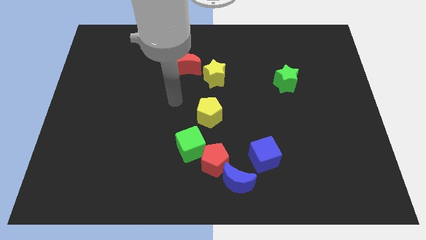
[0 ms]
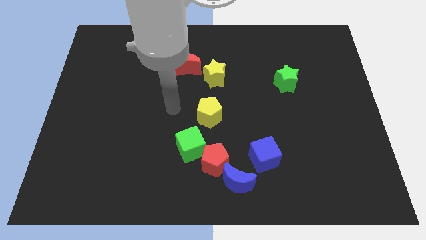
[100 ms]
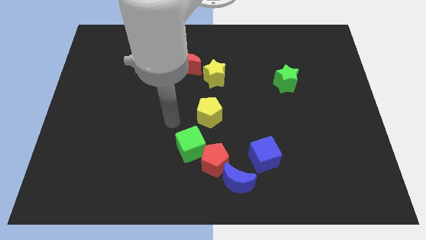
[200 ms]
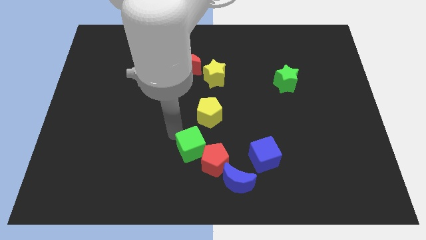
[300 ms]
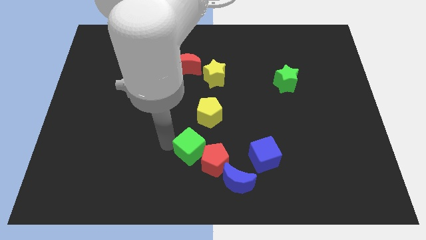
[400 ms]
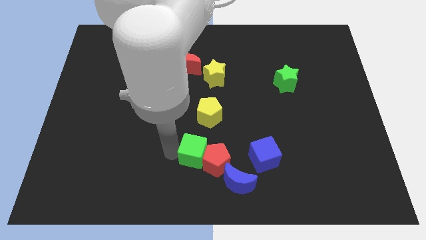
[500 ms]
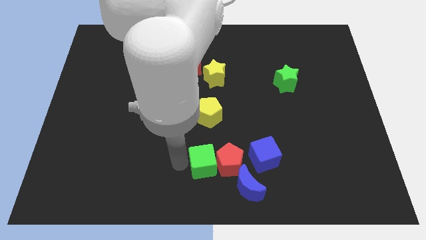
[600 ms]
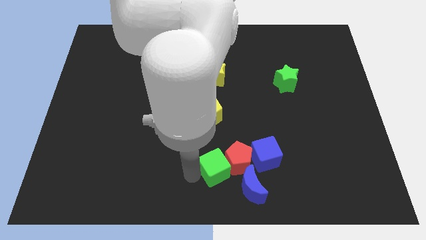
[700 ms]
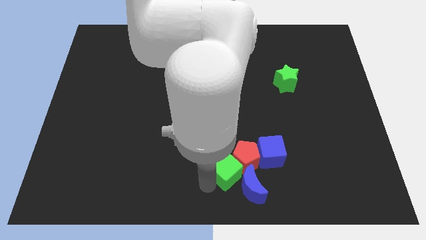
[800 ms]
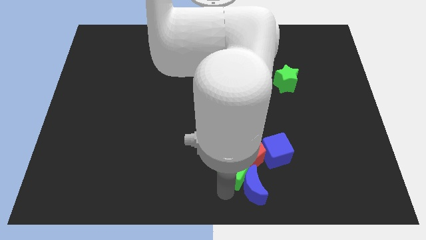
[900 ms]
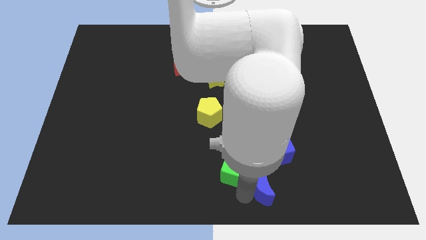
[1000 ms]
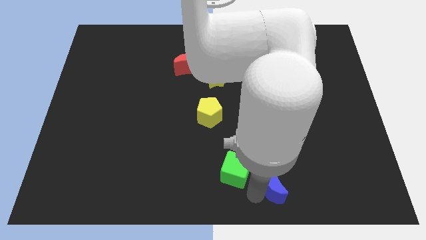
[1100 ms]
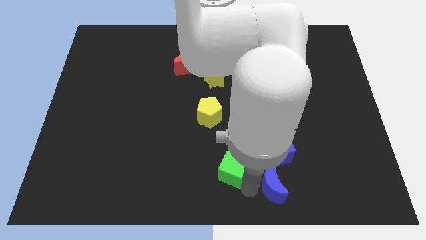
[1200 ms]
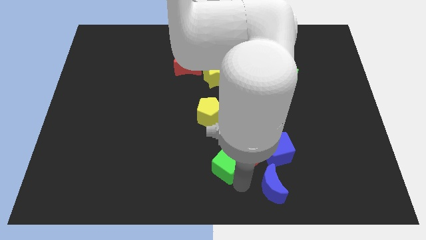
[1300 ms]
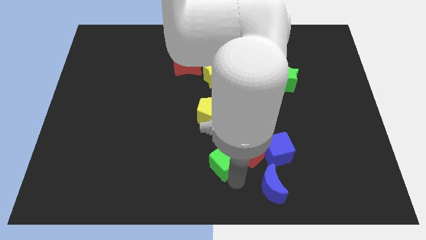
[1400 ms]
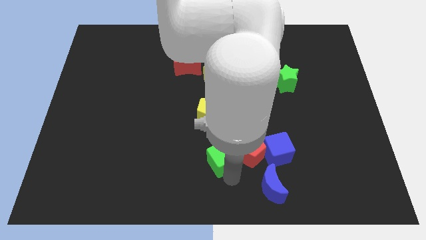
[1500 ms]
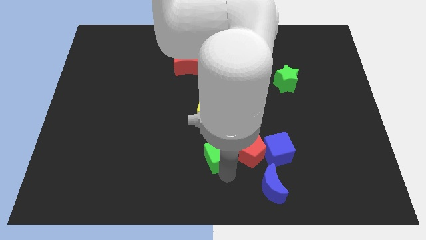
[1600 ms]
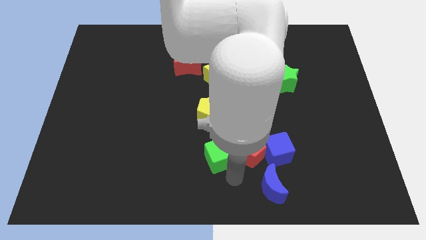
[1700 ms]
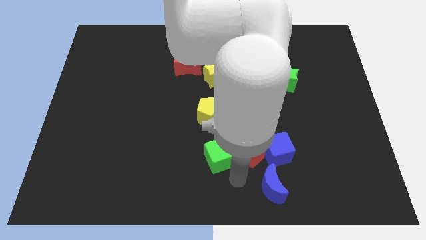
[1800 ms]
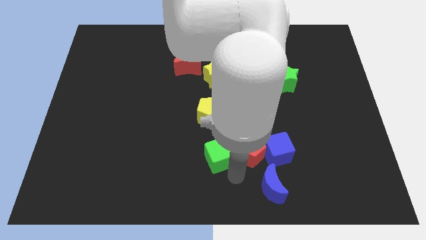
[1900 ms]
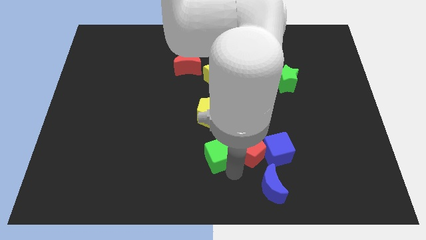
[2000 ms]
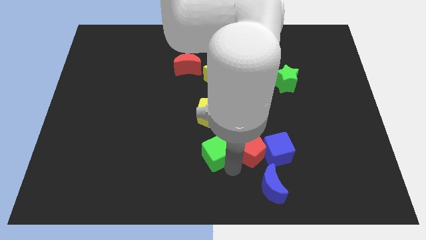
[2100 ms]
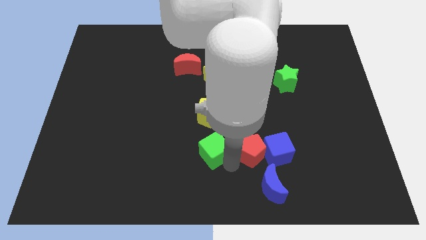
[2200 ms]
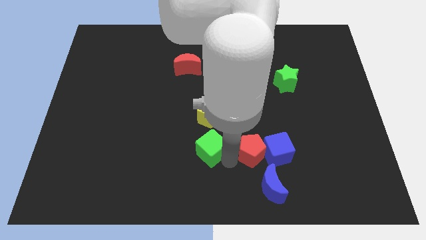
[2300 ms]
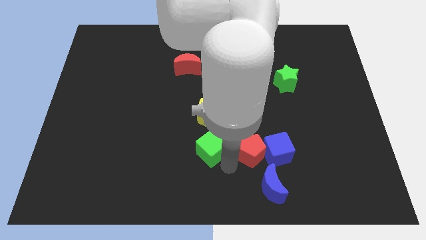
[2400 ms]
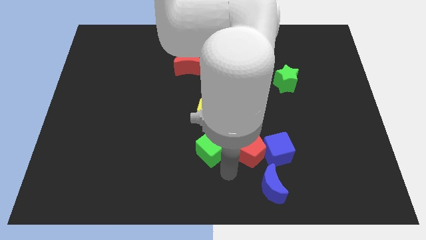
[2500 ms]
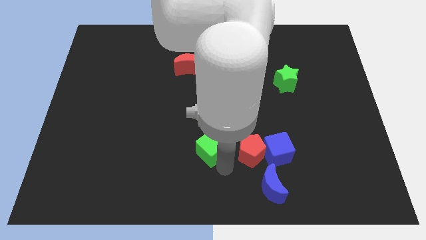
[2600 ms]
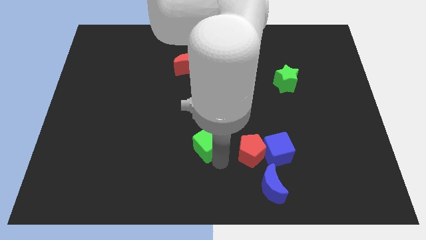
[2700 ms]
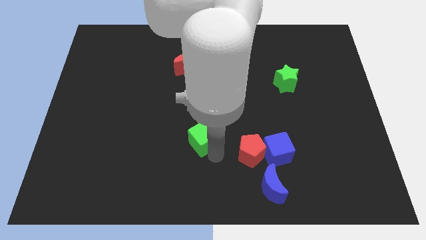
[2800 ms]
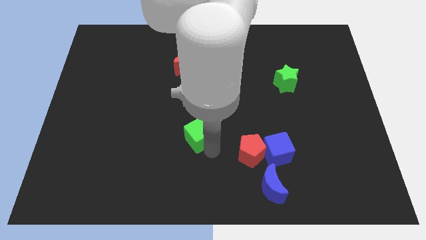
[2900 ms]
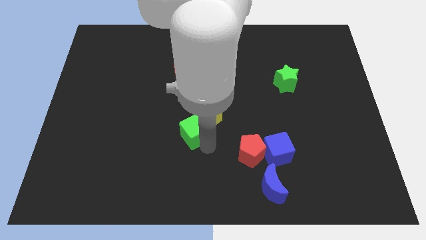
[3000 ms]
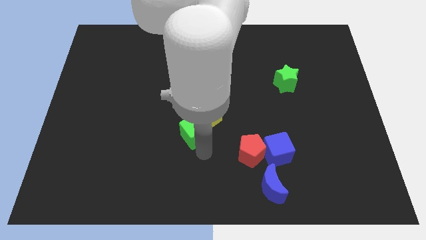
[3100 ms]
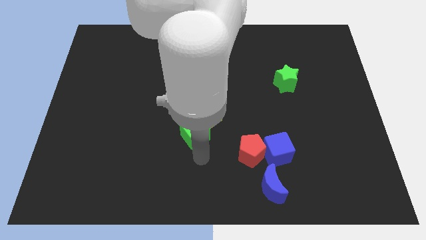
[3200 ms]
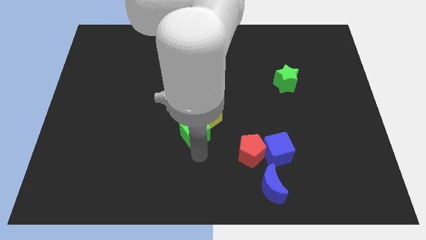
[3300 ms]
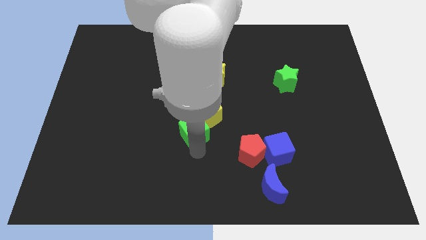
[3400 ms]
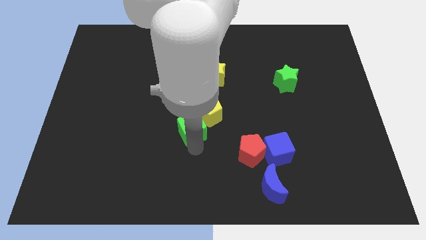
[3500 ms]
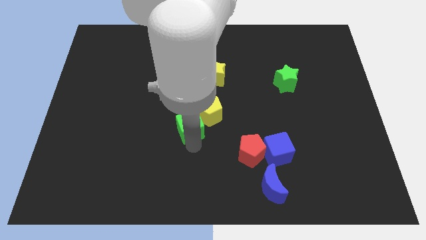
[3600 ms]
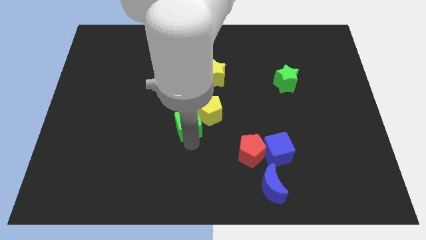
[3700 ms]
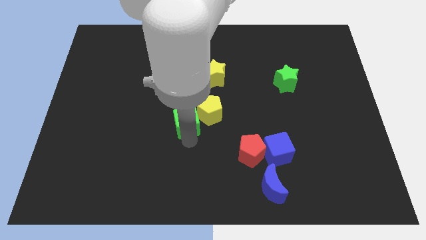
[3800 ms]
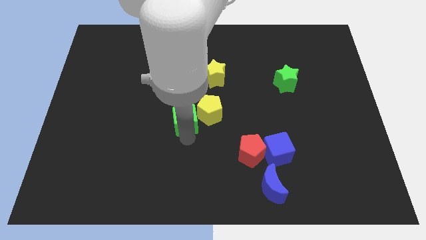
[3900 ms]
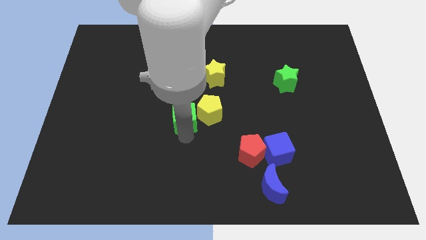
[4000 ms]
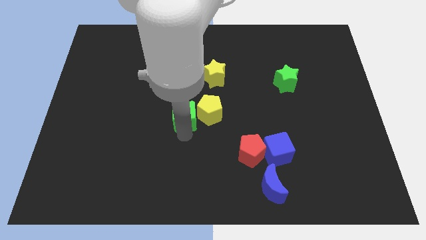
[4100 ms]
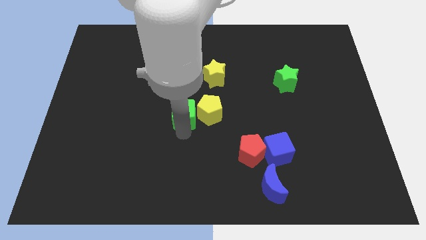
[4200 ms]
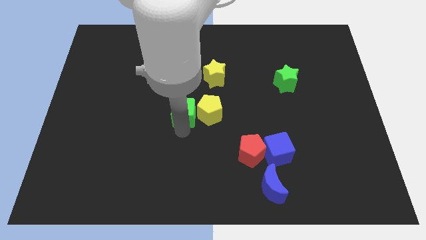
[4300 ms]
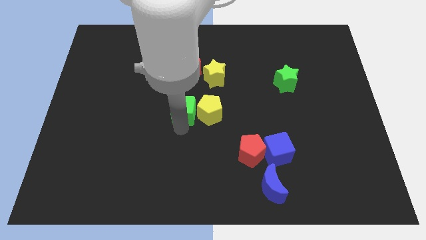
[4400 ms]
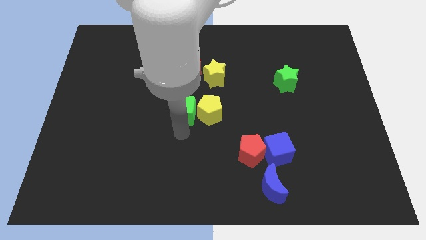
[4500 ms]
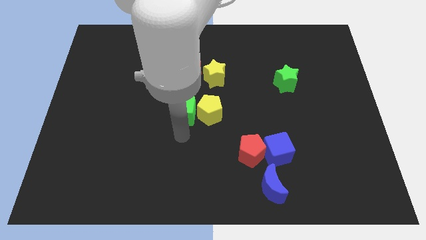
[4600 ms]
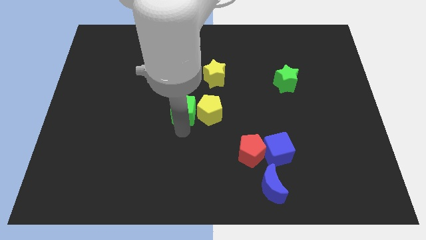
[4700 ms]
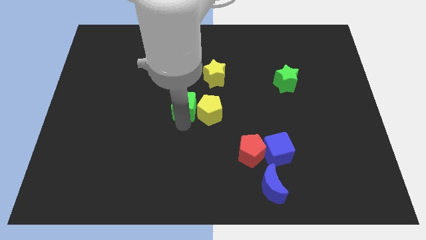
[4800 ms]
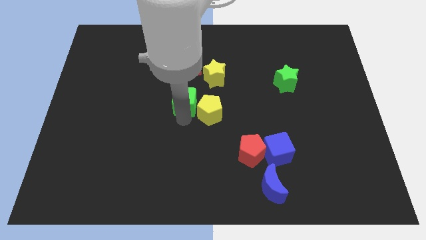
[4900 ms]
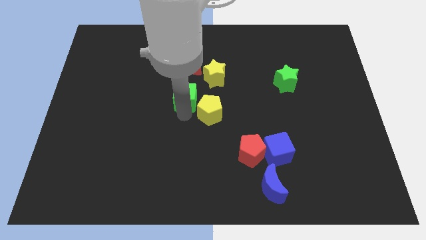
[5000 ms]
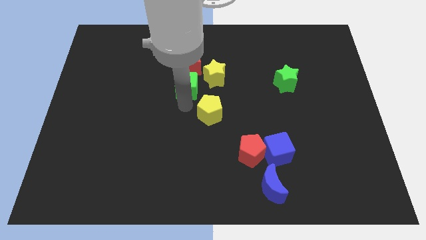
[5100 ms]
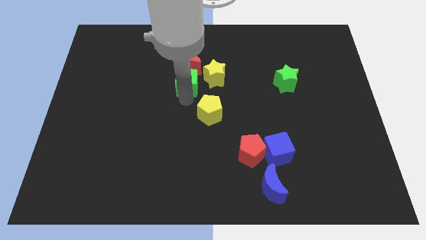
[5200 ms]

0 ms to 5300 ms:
slide the green cube to the red moon

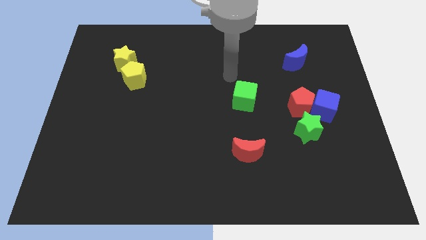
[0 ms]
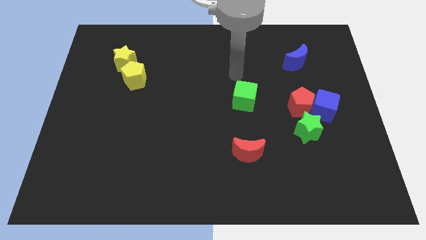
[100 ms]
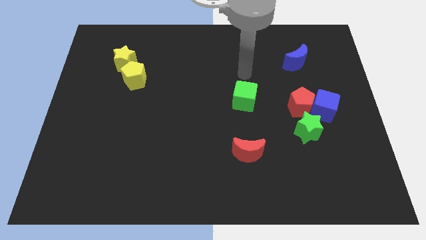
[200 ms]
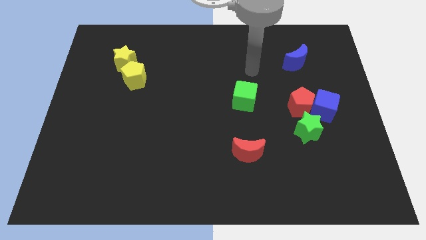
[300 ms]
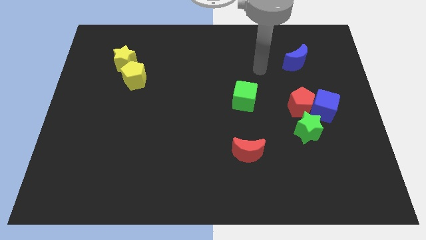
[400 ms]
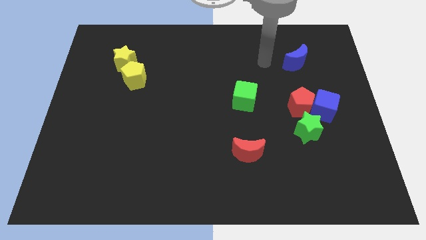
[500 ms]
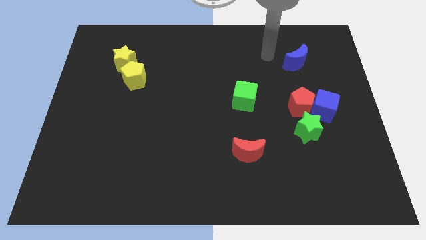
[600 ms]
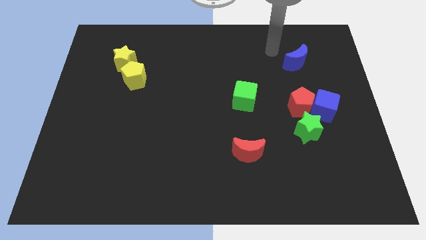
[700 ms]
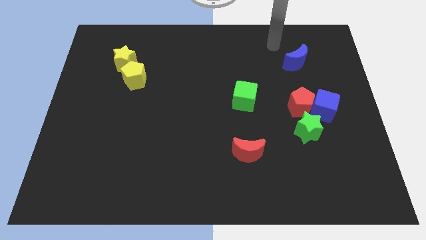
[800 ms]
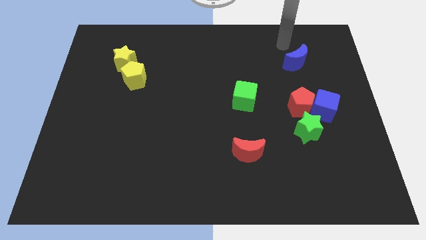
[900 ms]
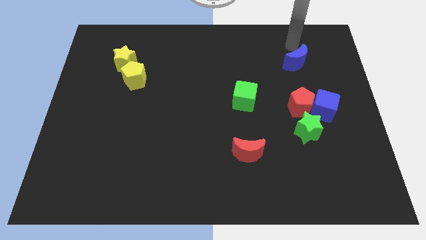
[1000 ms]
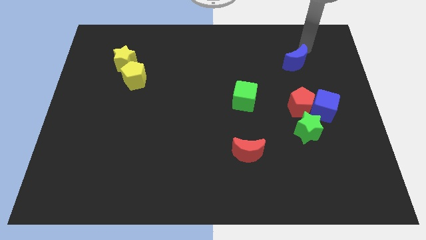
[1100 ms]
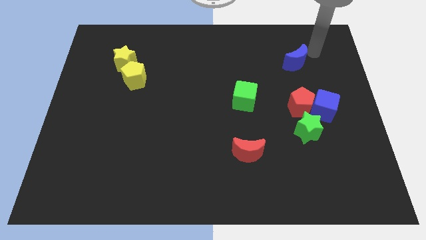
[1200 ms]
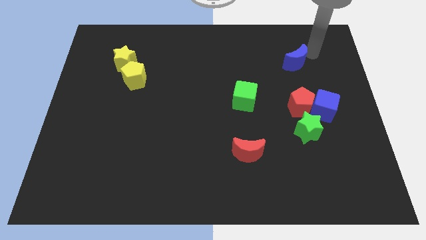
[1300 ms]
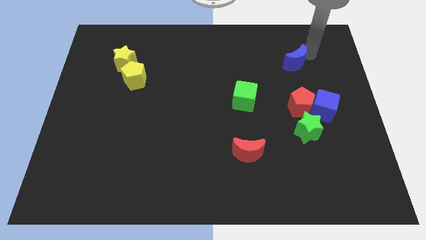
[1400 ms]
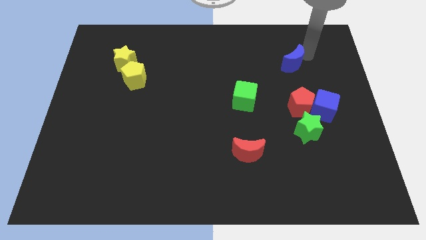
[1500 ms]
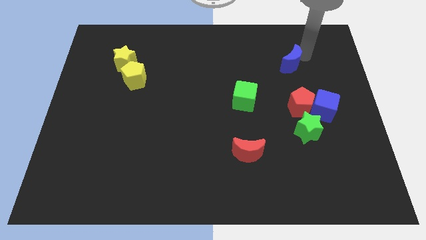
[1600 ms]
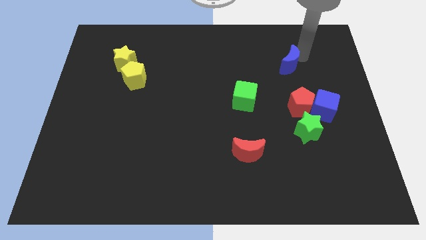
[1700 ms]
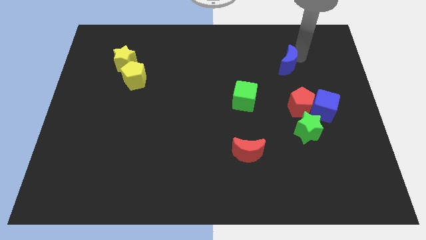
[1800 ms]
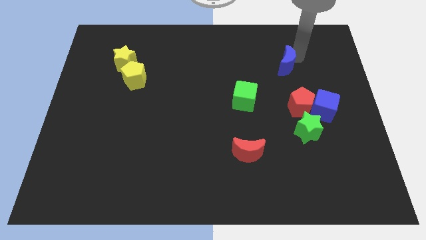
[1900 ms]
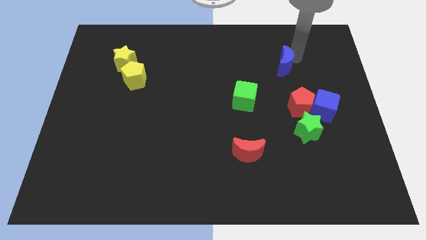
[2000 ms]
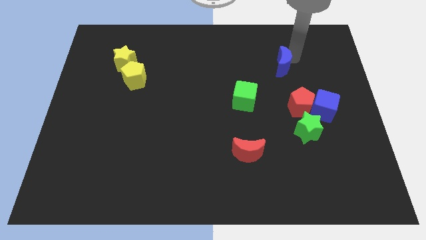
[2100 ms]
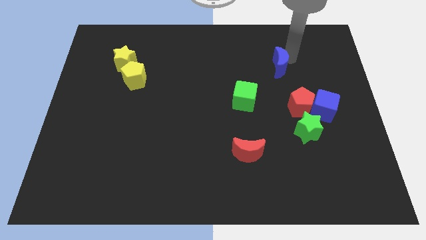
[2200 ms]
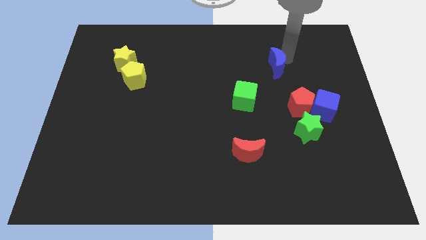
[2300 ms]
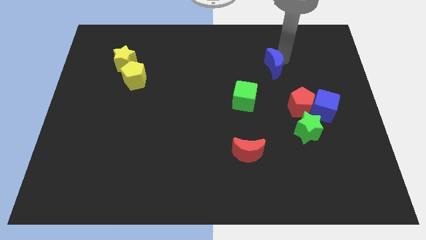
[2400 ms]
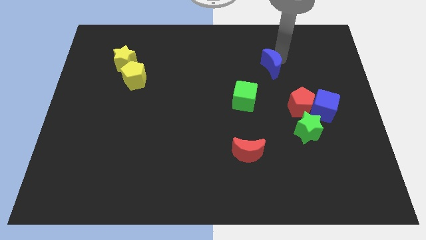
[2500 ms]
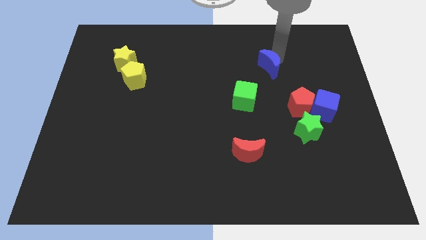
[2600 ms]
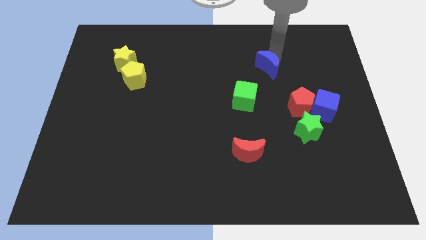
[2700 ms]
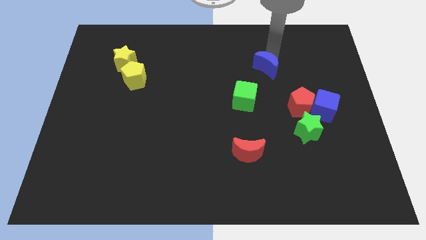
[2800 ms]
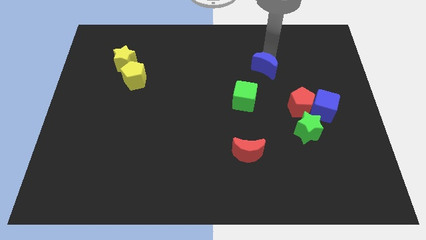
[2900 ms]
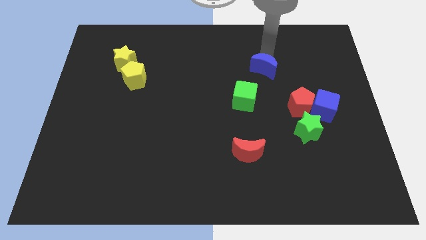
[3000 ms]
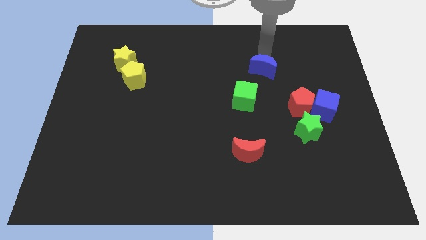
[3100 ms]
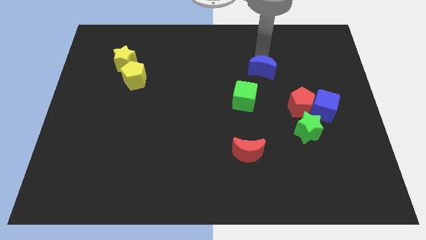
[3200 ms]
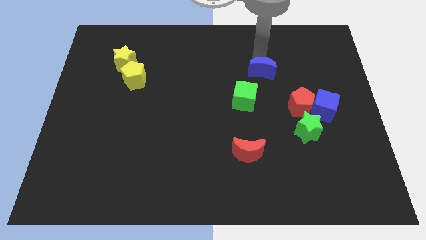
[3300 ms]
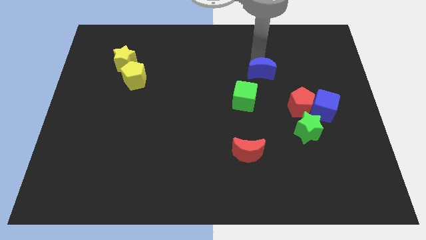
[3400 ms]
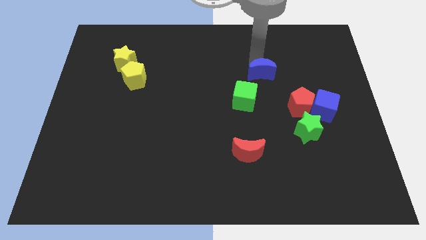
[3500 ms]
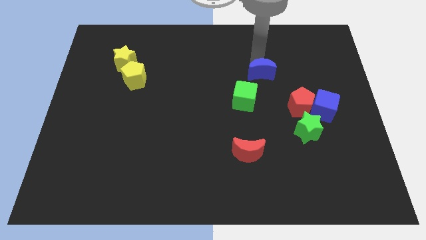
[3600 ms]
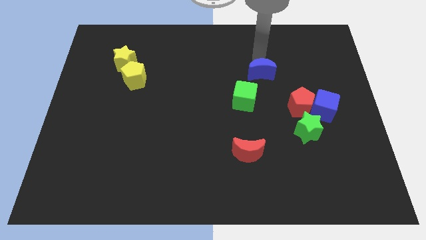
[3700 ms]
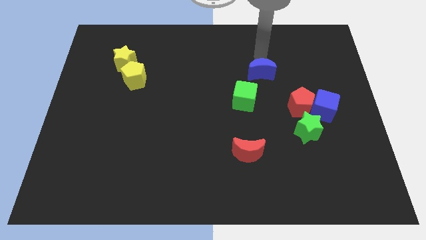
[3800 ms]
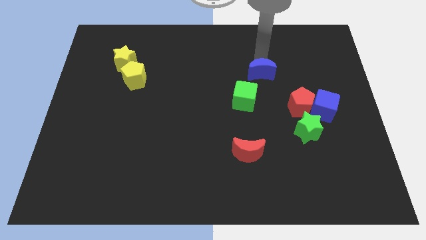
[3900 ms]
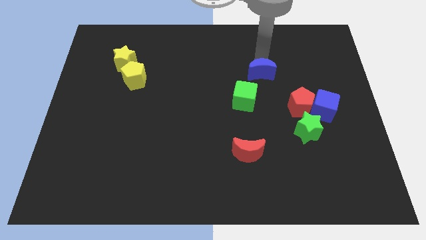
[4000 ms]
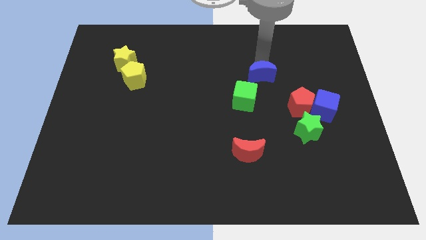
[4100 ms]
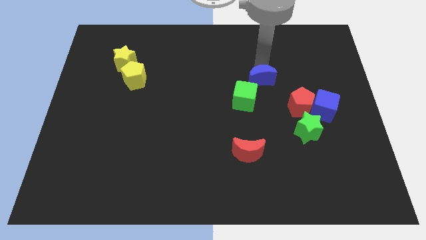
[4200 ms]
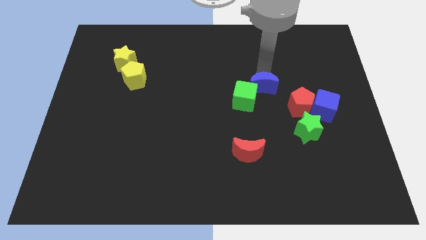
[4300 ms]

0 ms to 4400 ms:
slide the blue moon close to the green cube
